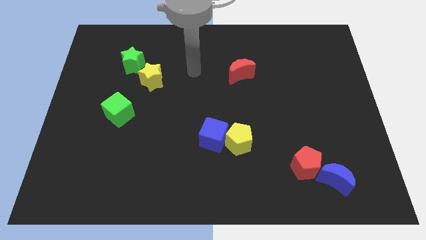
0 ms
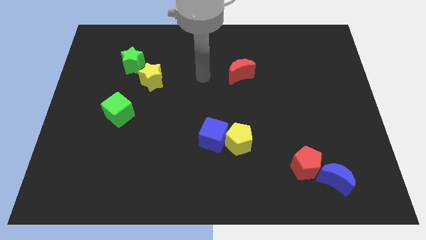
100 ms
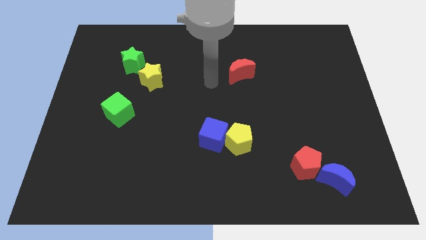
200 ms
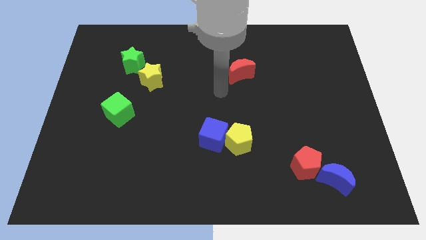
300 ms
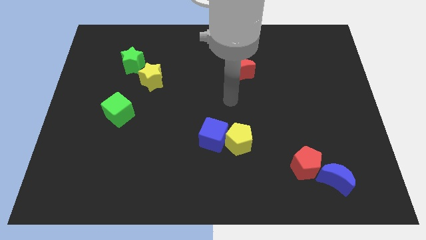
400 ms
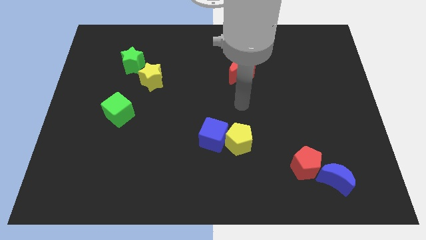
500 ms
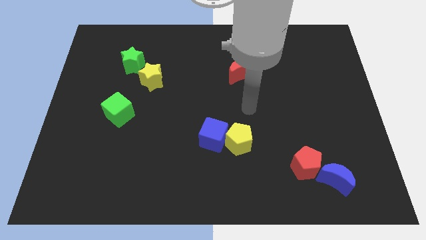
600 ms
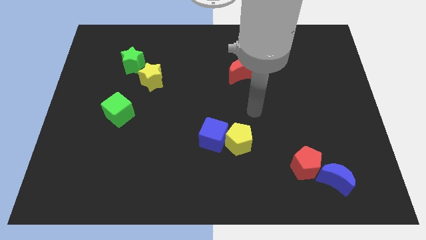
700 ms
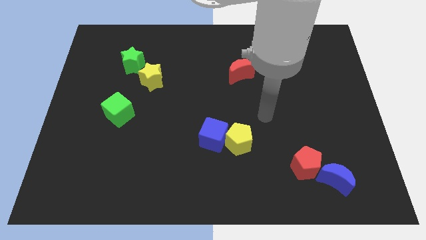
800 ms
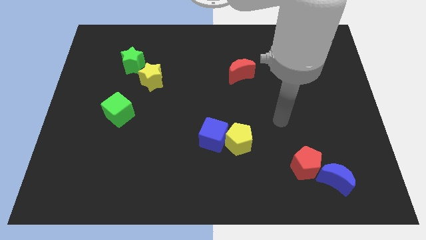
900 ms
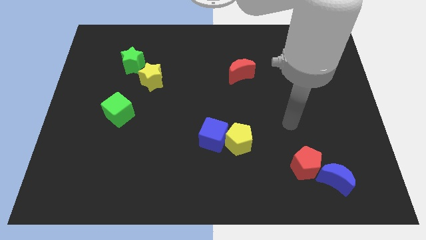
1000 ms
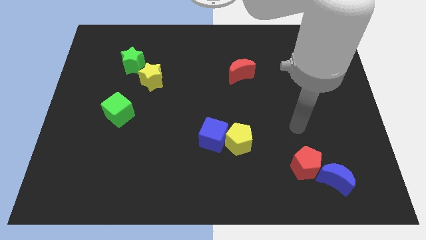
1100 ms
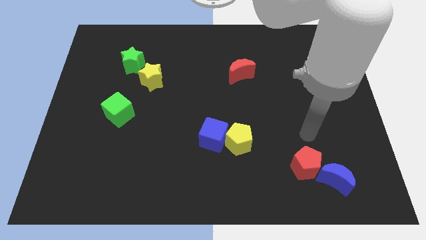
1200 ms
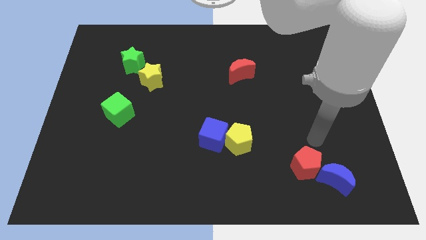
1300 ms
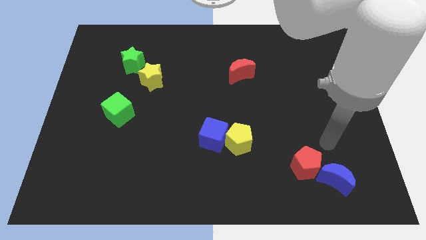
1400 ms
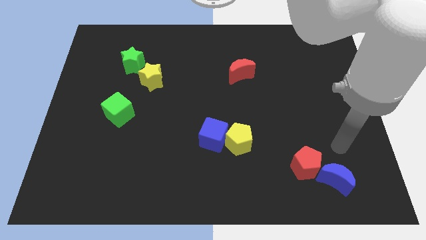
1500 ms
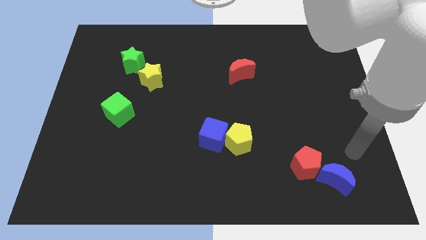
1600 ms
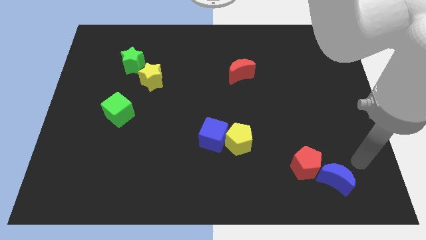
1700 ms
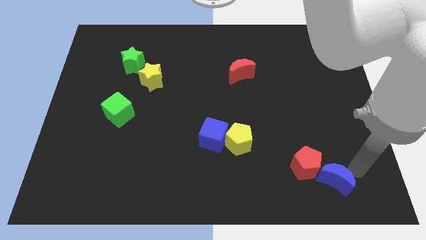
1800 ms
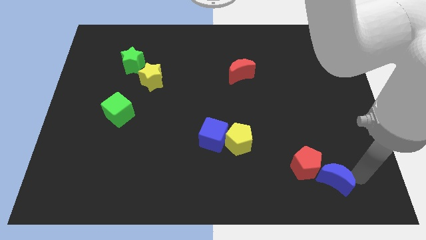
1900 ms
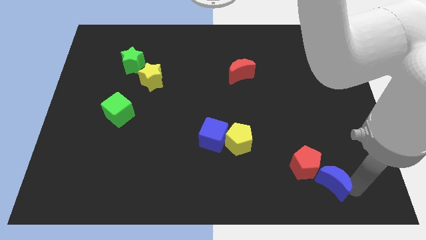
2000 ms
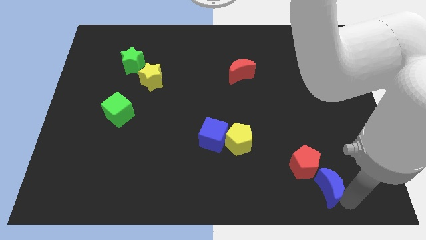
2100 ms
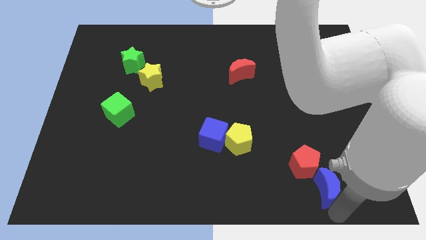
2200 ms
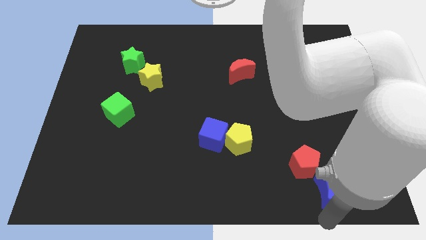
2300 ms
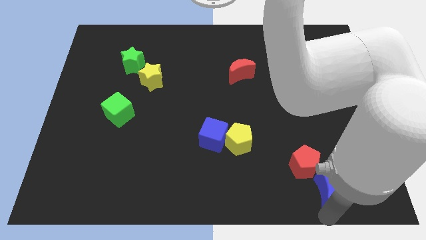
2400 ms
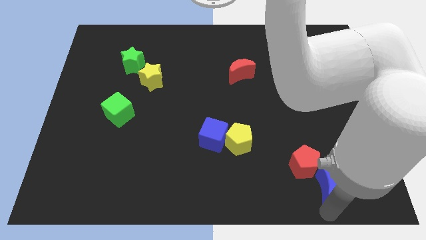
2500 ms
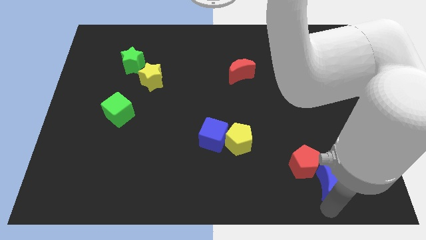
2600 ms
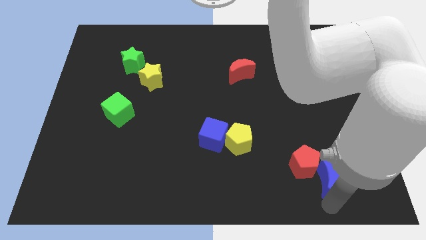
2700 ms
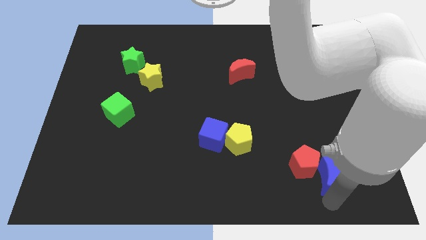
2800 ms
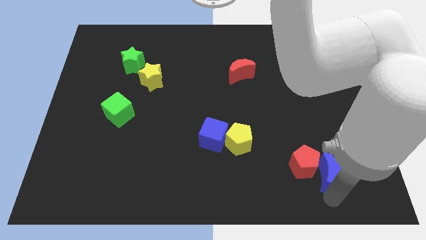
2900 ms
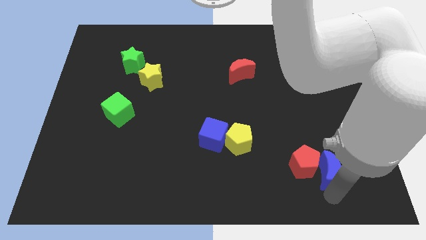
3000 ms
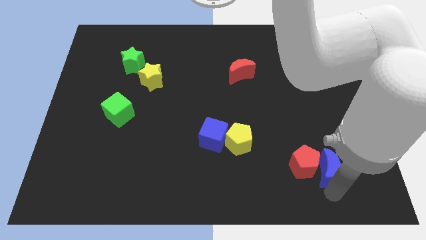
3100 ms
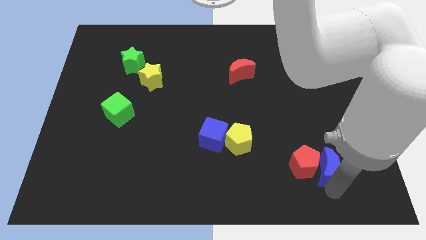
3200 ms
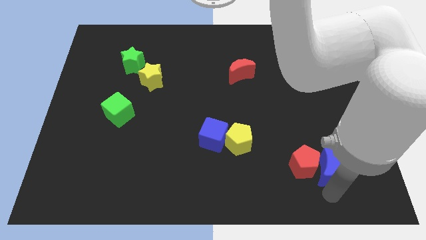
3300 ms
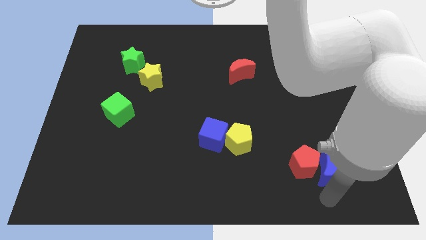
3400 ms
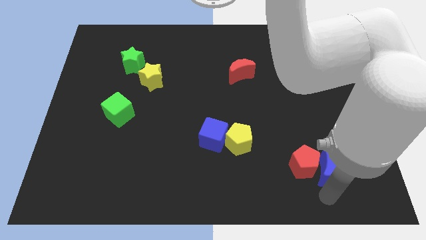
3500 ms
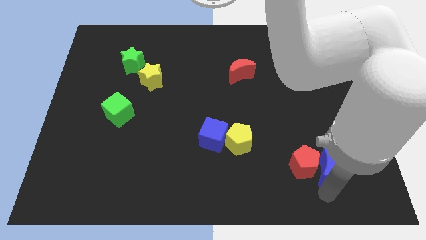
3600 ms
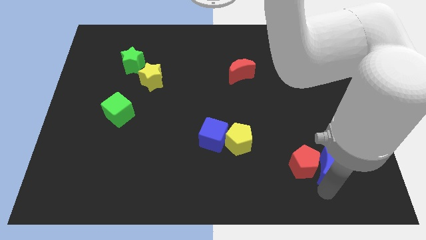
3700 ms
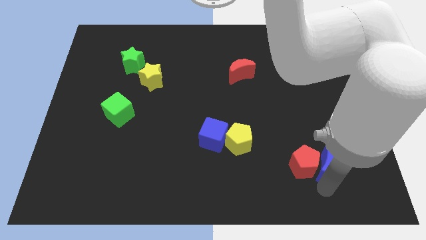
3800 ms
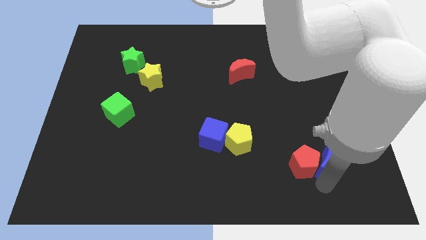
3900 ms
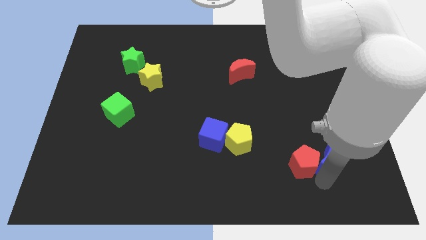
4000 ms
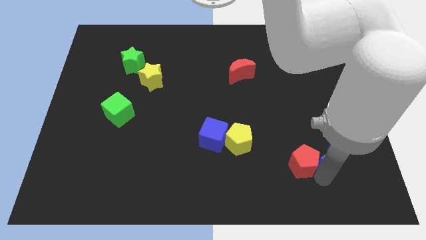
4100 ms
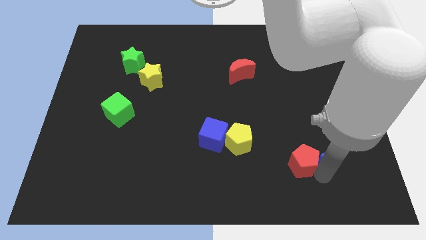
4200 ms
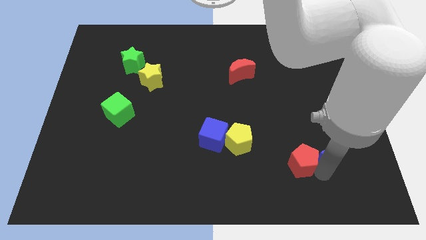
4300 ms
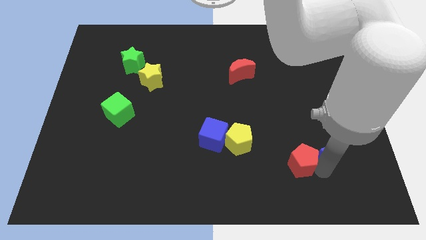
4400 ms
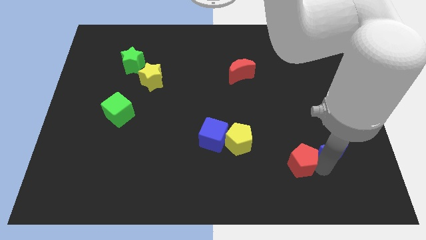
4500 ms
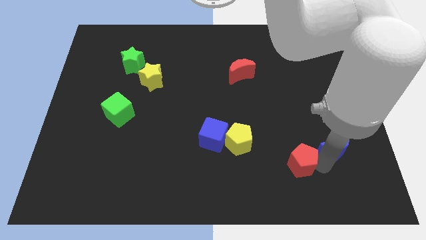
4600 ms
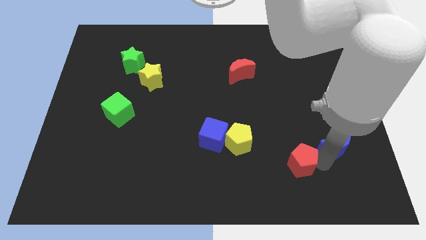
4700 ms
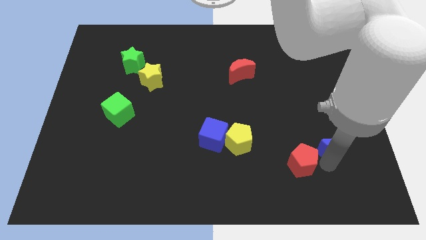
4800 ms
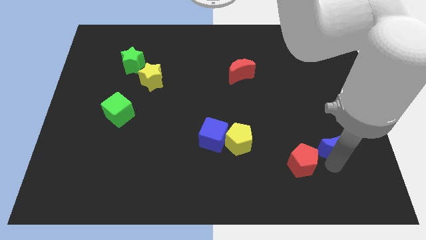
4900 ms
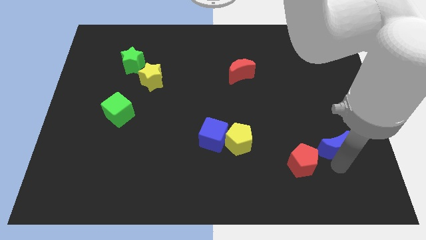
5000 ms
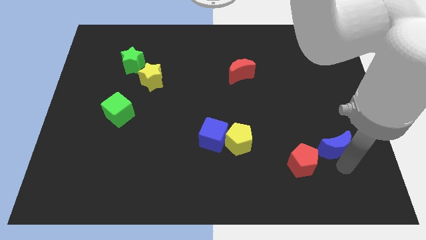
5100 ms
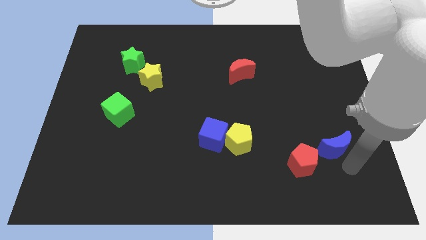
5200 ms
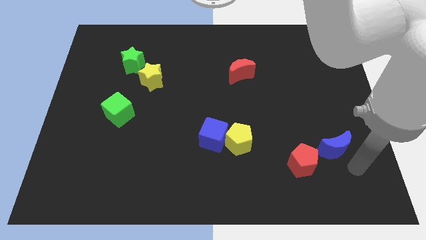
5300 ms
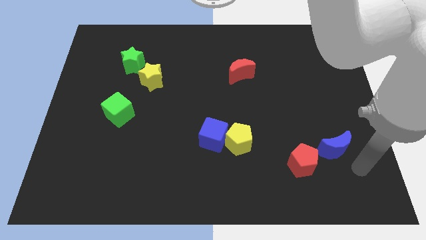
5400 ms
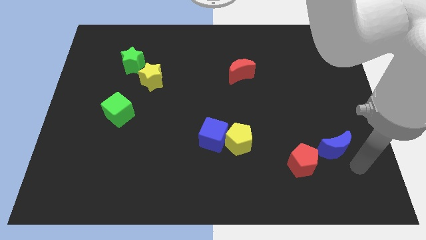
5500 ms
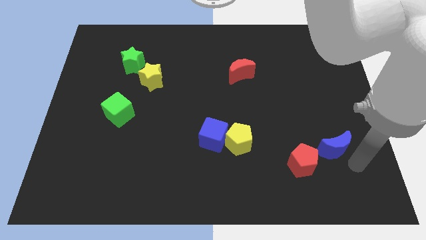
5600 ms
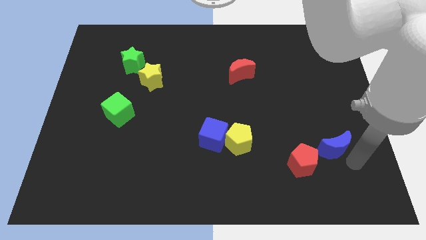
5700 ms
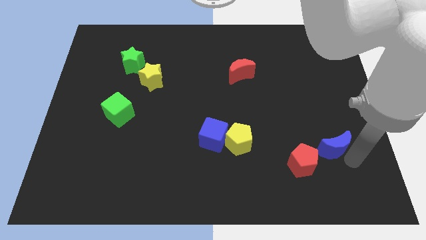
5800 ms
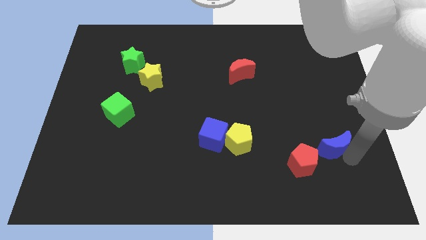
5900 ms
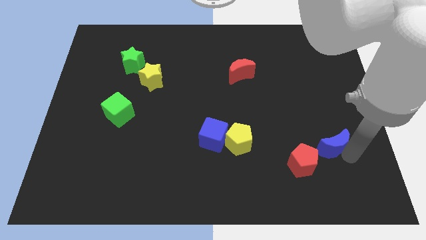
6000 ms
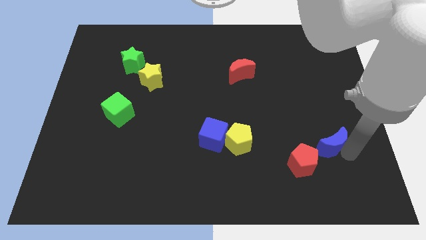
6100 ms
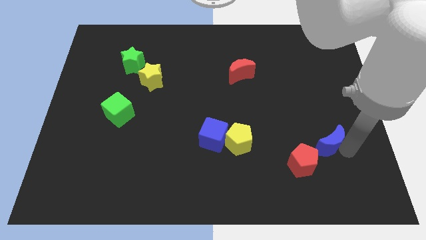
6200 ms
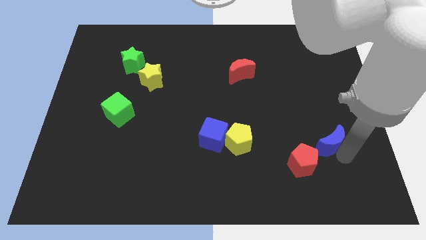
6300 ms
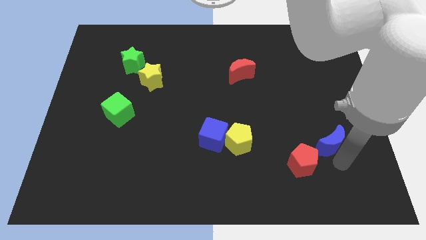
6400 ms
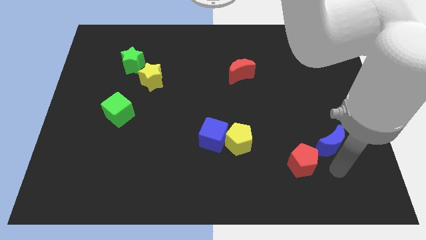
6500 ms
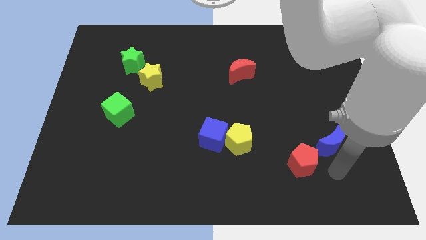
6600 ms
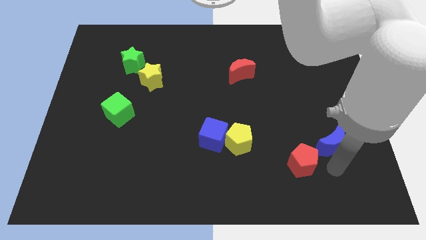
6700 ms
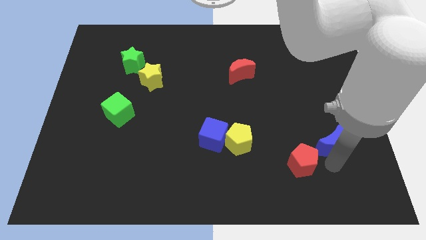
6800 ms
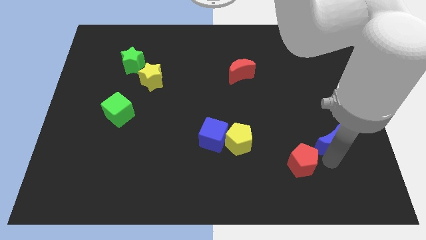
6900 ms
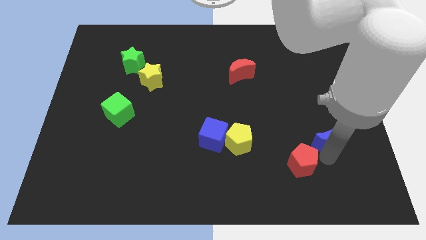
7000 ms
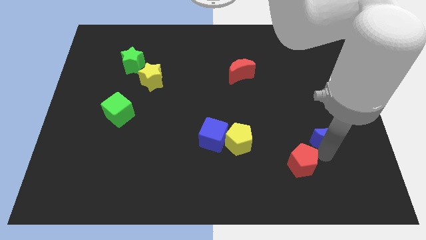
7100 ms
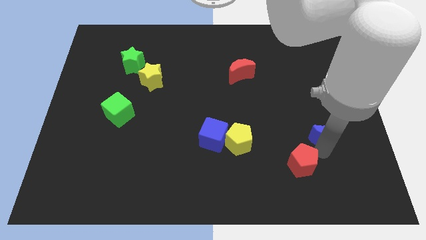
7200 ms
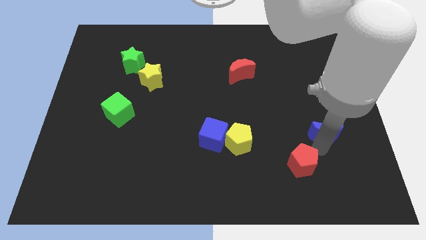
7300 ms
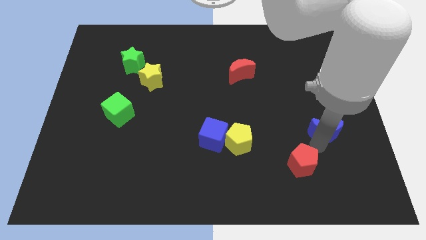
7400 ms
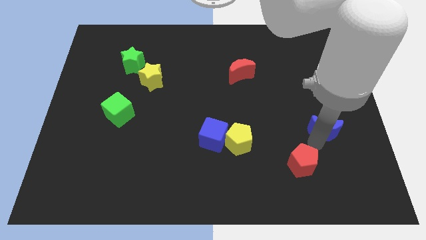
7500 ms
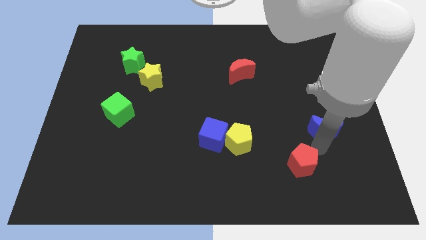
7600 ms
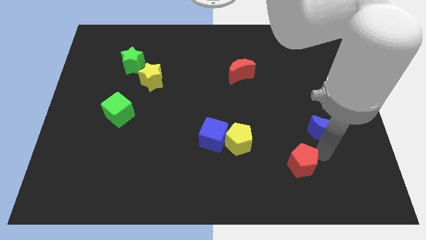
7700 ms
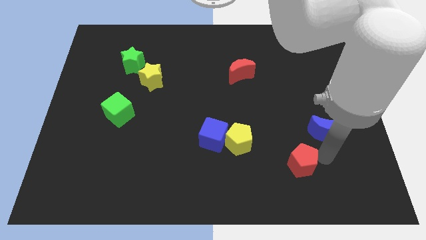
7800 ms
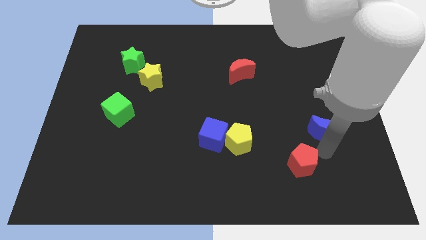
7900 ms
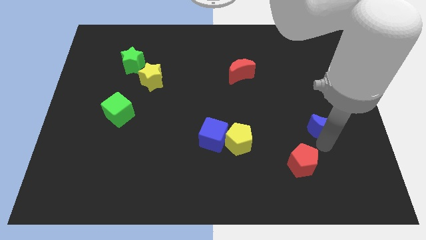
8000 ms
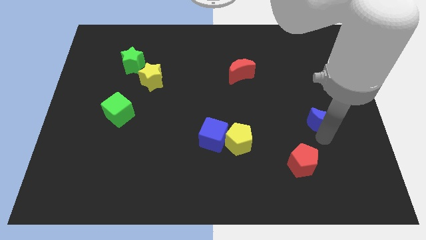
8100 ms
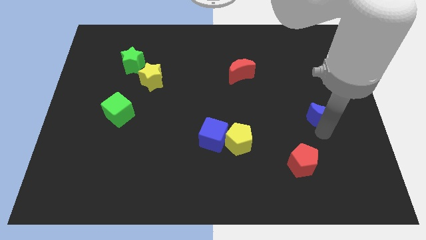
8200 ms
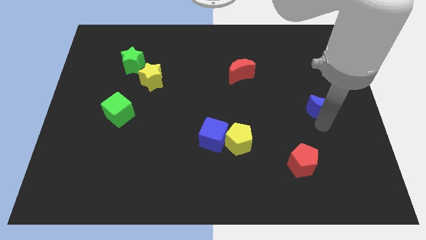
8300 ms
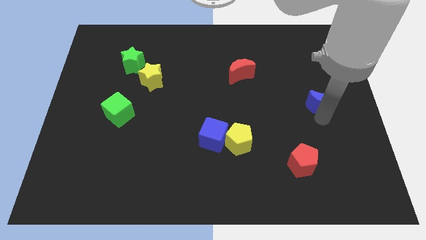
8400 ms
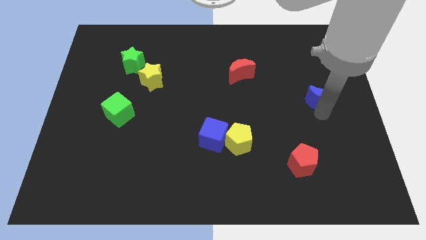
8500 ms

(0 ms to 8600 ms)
push the blue moon upwards
